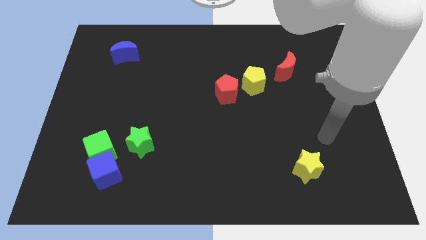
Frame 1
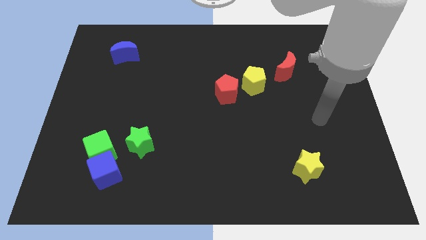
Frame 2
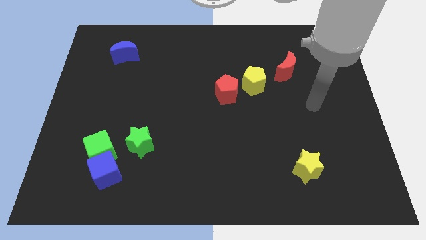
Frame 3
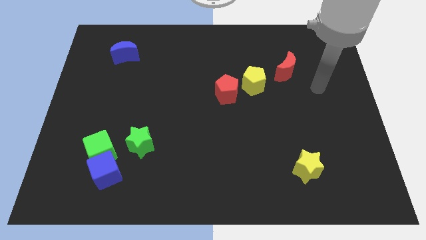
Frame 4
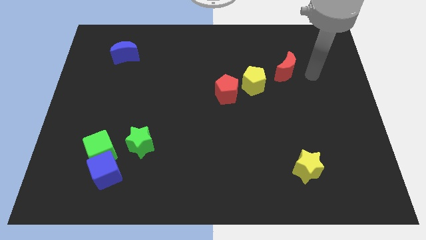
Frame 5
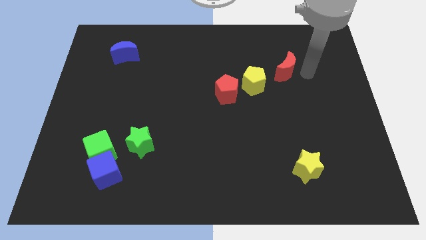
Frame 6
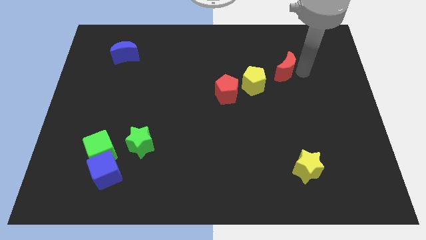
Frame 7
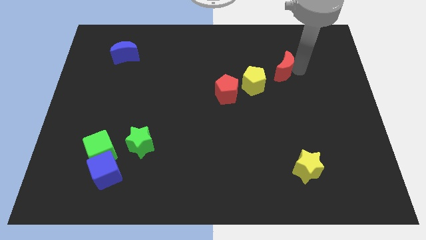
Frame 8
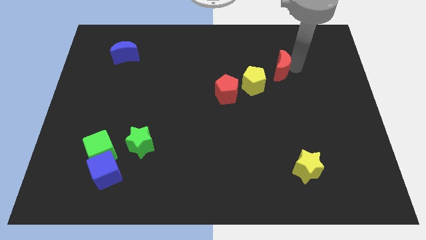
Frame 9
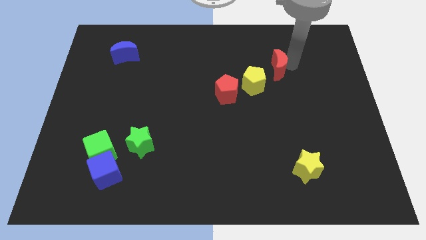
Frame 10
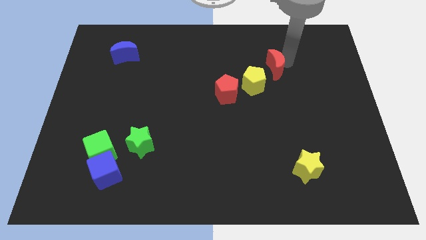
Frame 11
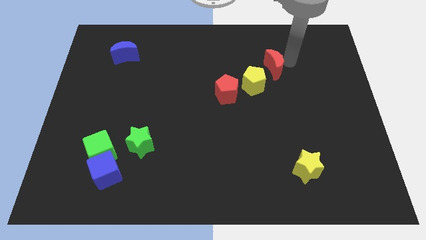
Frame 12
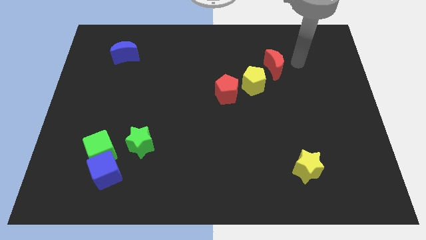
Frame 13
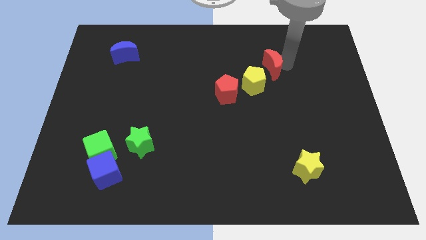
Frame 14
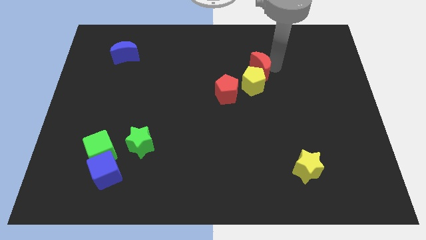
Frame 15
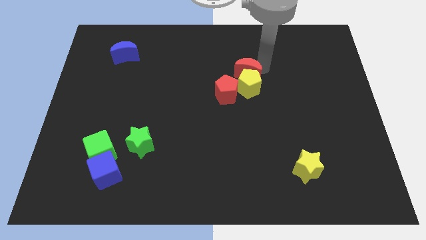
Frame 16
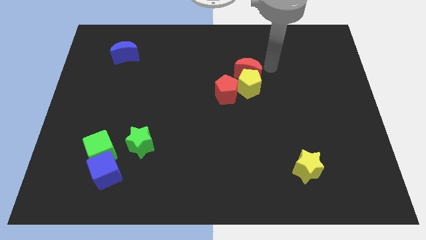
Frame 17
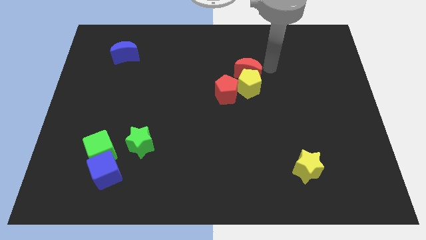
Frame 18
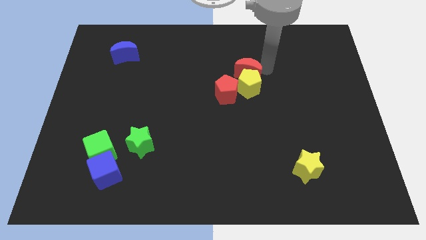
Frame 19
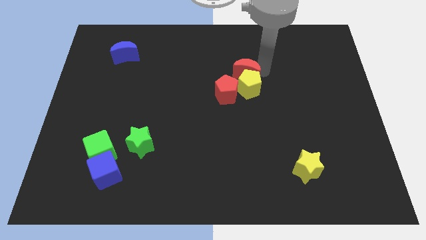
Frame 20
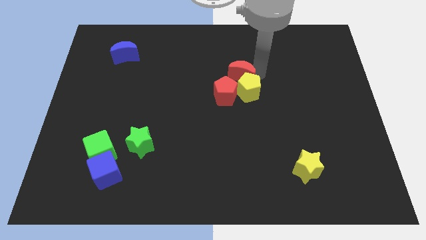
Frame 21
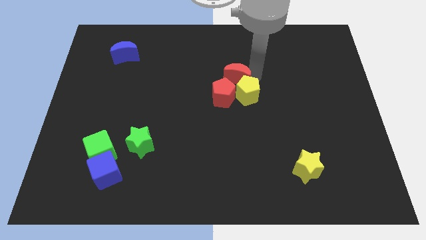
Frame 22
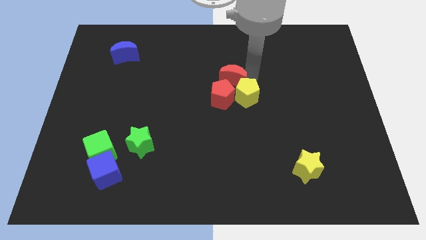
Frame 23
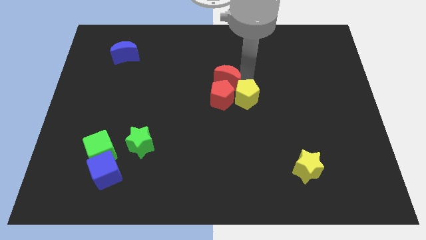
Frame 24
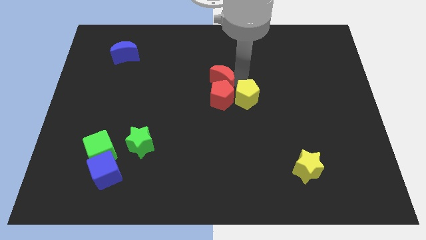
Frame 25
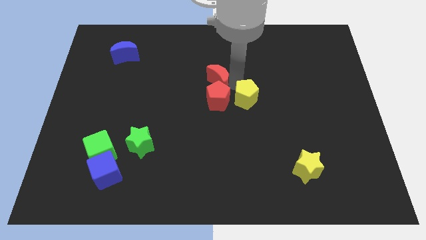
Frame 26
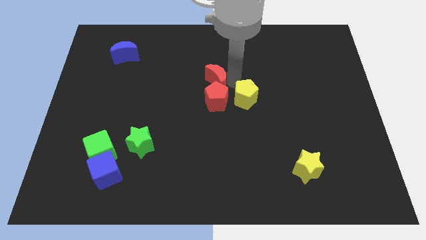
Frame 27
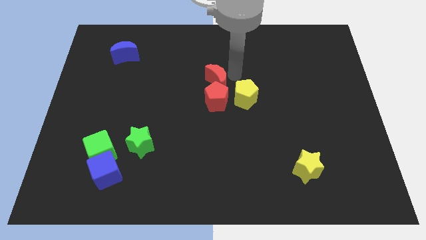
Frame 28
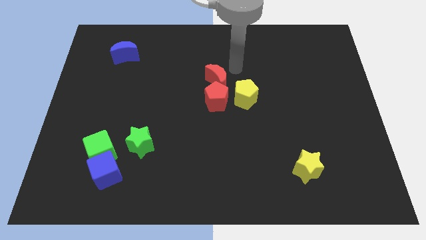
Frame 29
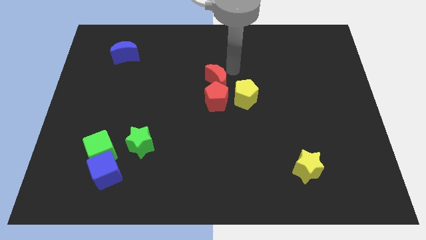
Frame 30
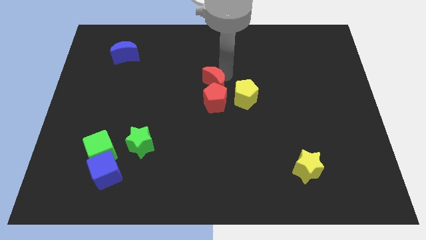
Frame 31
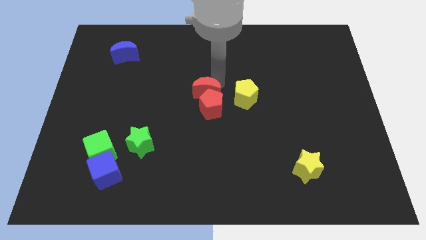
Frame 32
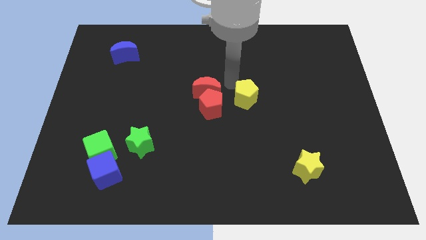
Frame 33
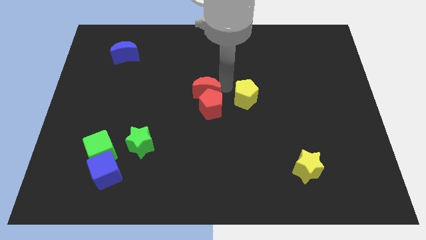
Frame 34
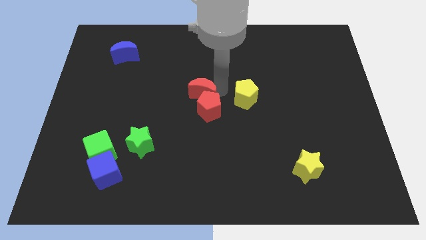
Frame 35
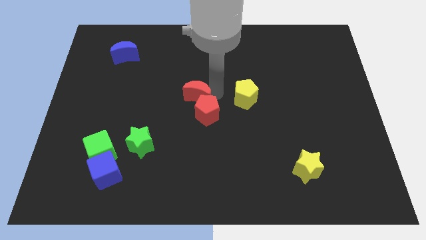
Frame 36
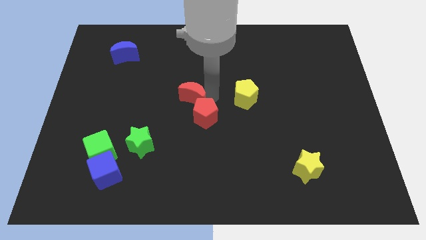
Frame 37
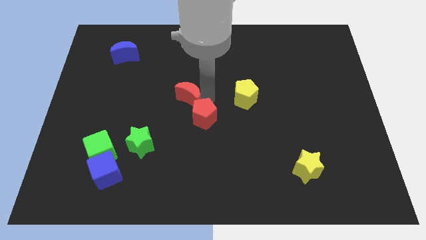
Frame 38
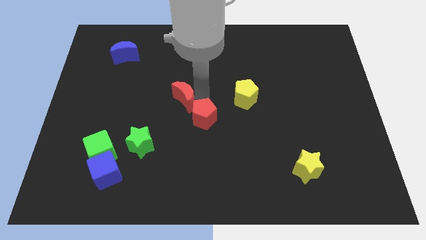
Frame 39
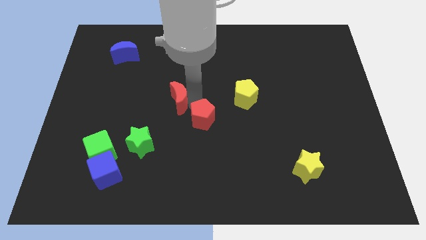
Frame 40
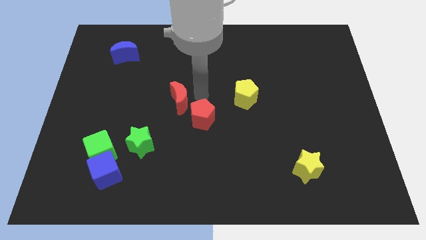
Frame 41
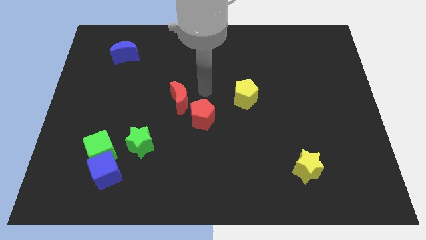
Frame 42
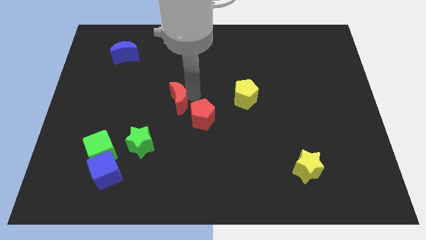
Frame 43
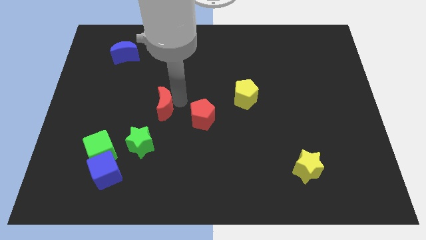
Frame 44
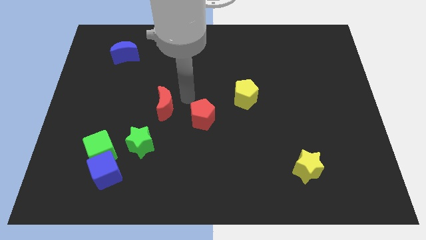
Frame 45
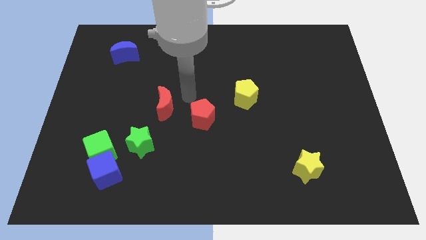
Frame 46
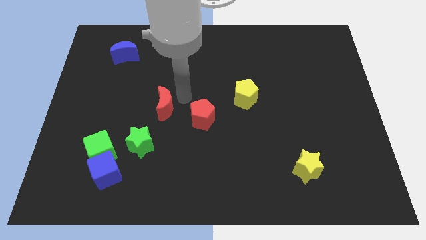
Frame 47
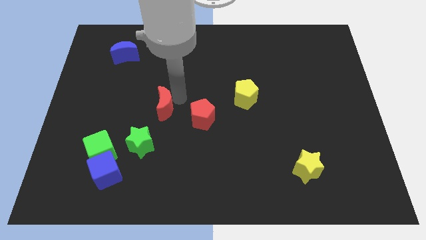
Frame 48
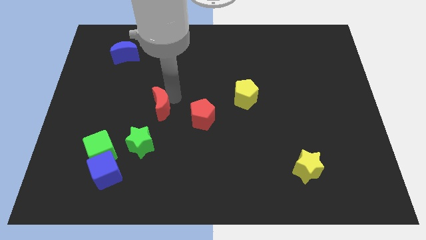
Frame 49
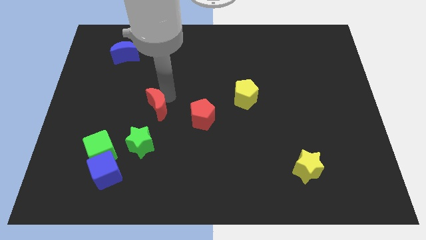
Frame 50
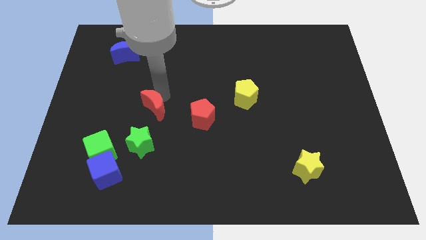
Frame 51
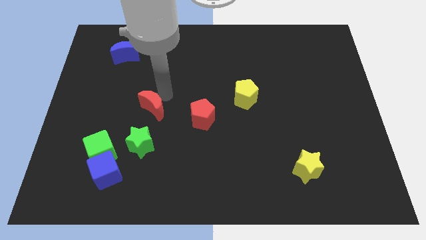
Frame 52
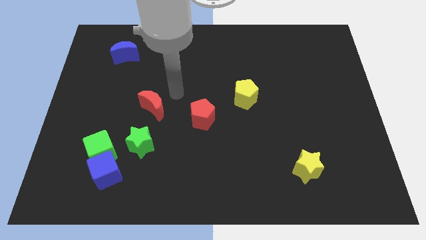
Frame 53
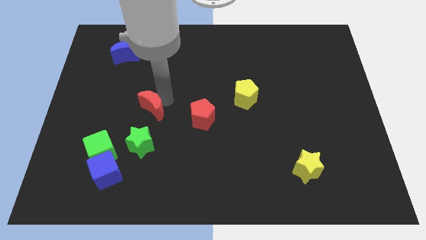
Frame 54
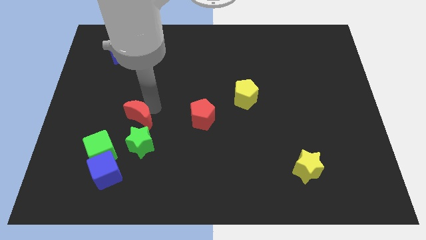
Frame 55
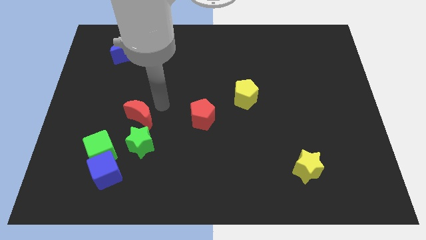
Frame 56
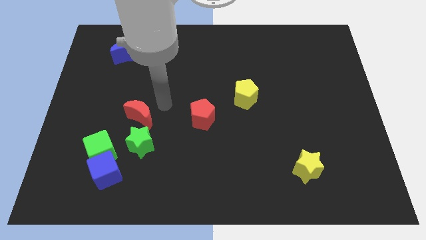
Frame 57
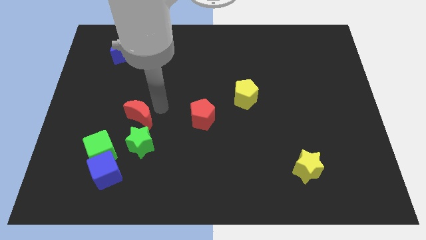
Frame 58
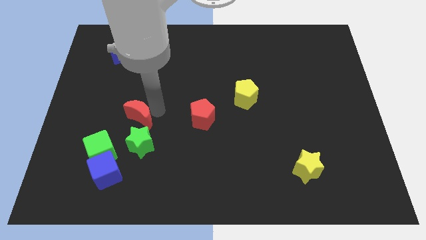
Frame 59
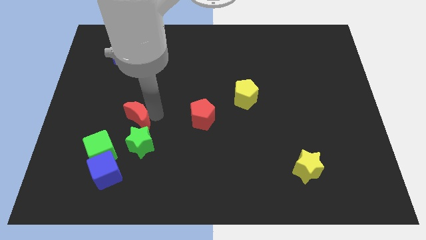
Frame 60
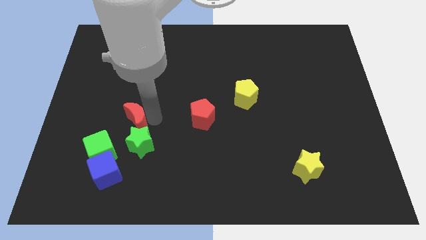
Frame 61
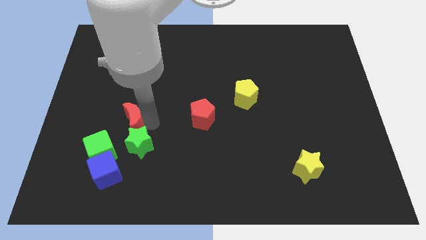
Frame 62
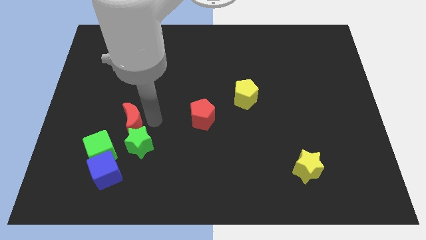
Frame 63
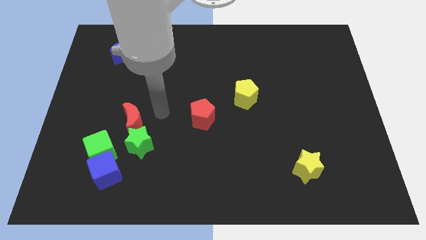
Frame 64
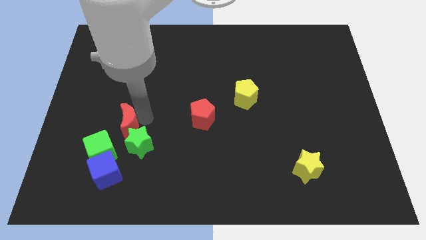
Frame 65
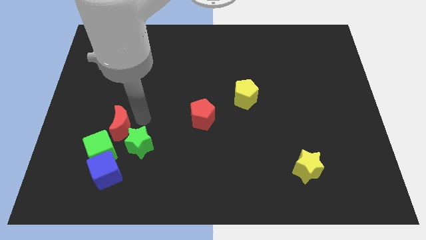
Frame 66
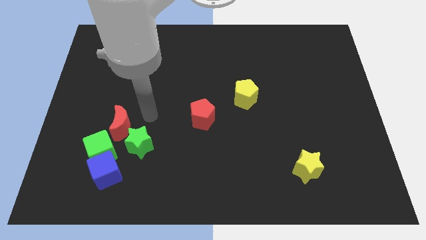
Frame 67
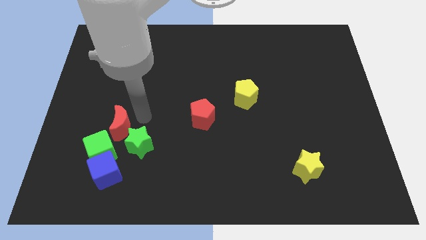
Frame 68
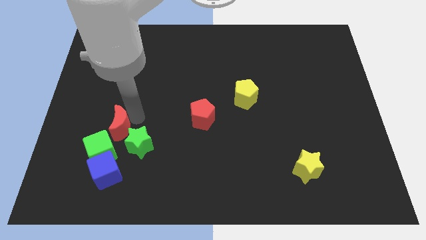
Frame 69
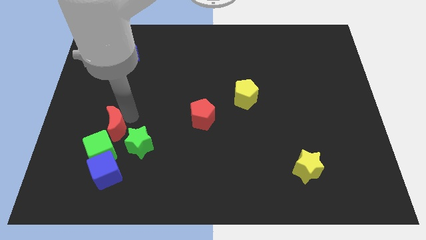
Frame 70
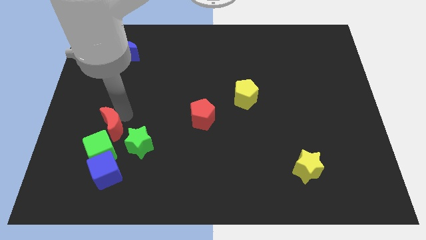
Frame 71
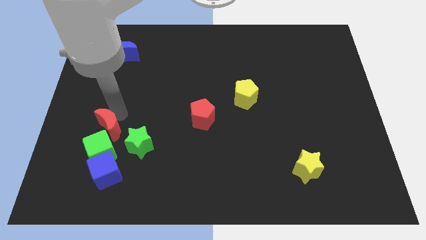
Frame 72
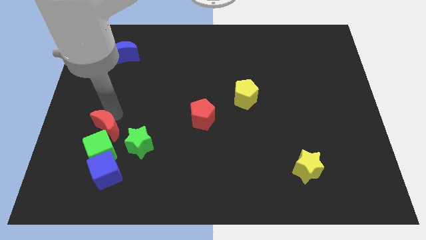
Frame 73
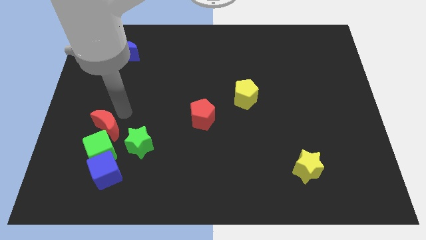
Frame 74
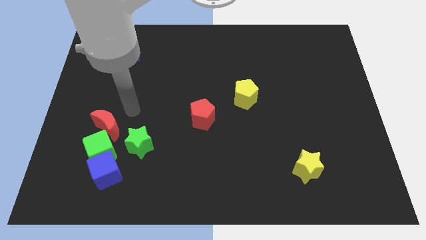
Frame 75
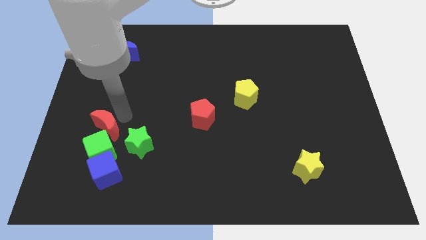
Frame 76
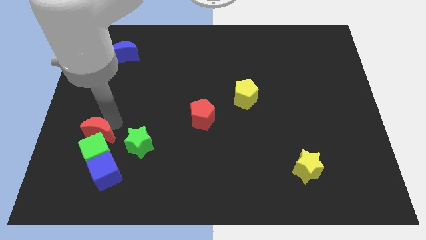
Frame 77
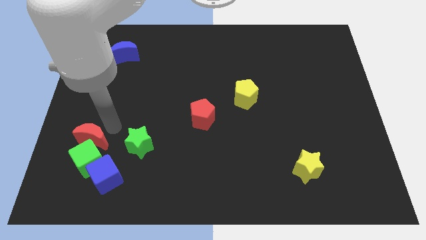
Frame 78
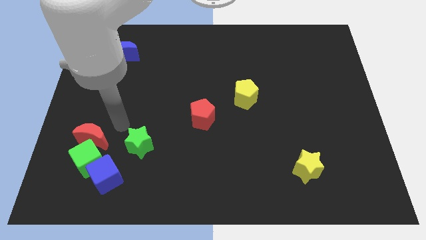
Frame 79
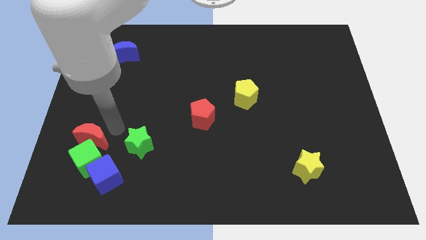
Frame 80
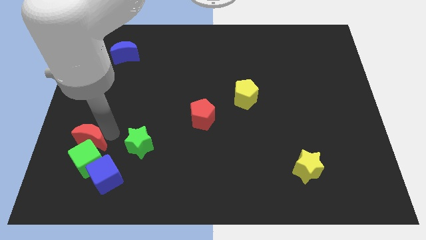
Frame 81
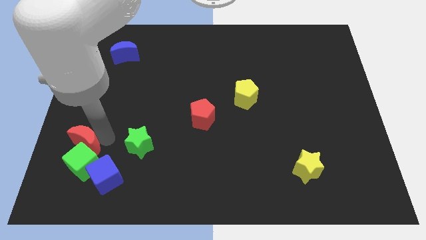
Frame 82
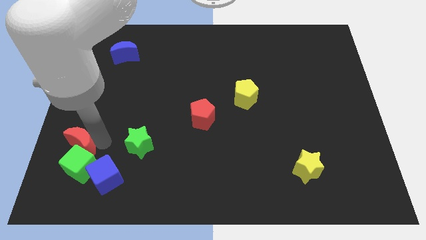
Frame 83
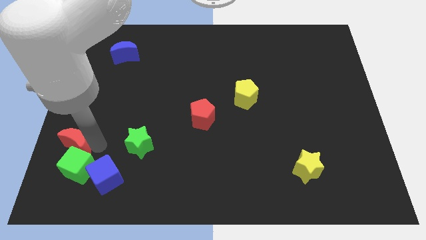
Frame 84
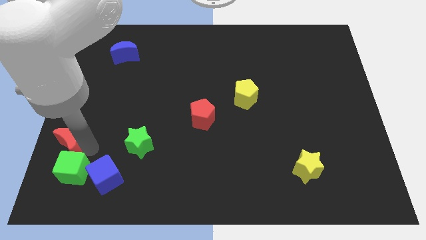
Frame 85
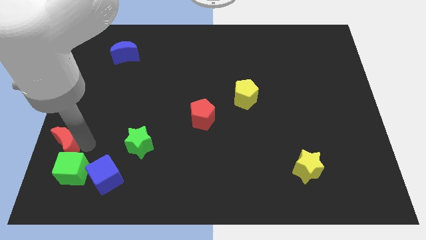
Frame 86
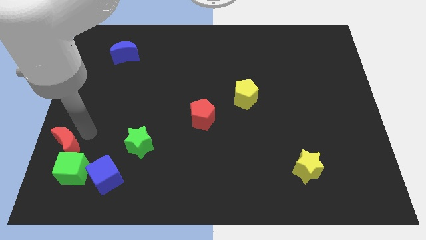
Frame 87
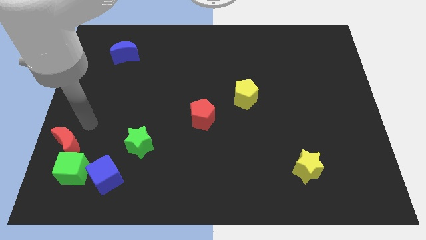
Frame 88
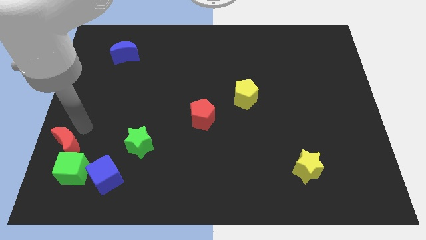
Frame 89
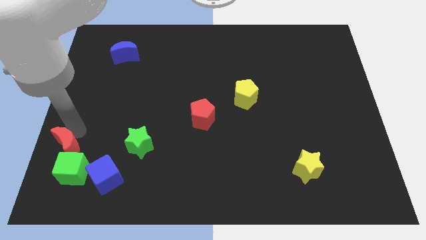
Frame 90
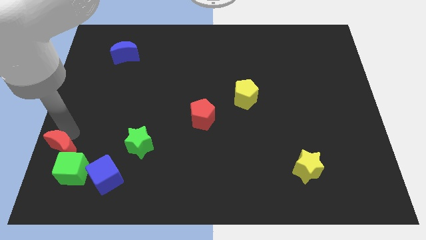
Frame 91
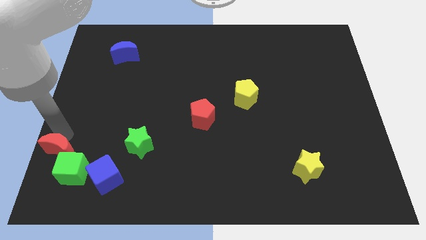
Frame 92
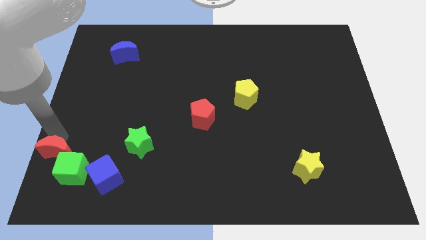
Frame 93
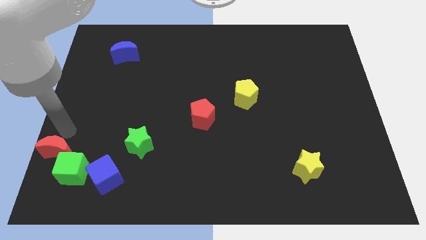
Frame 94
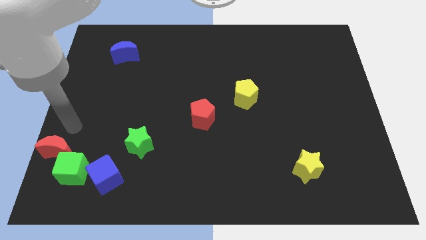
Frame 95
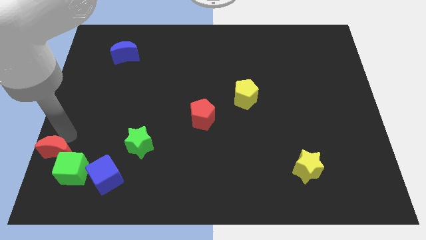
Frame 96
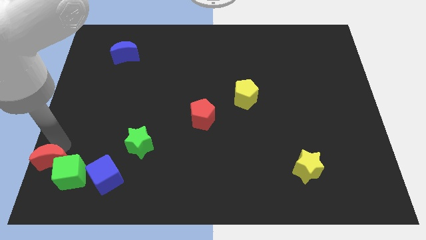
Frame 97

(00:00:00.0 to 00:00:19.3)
move the red moon to the bottom left corner
